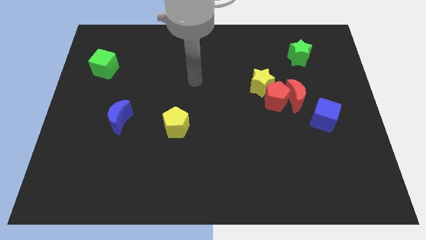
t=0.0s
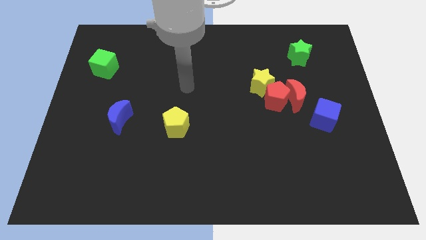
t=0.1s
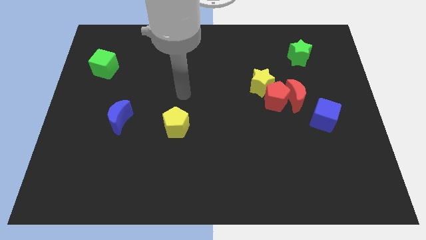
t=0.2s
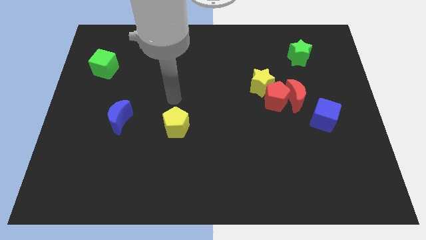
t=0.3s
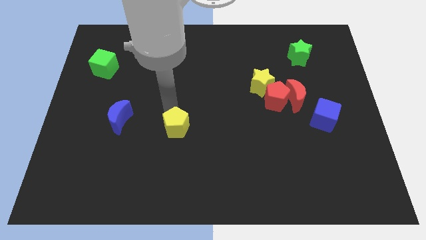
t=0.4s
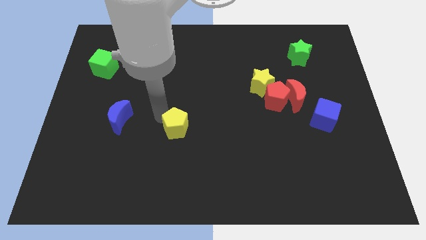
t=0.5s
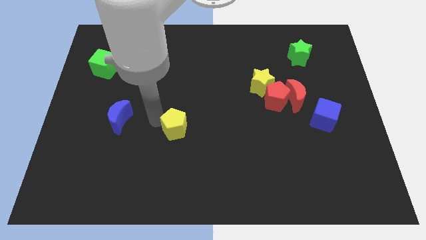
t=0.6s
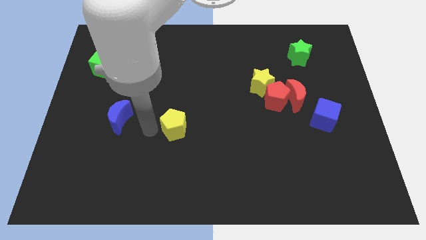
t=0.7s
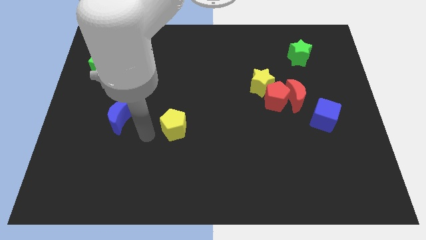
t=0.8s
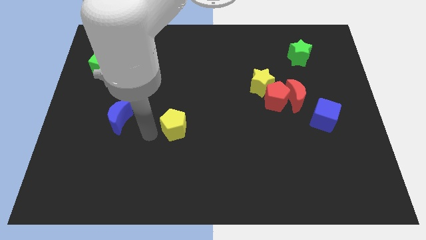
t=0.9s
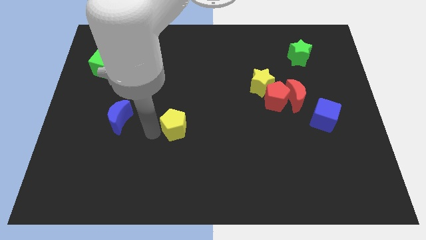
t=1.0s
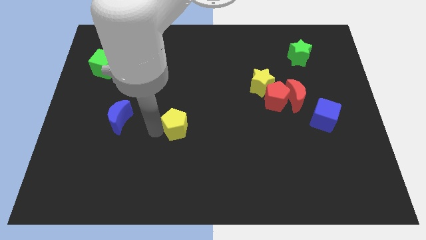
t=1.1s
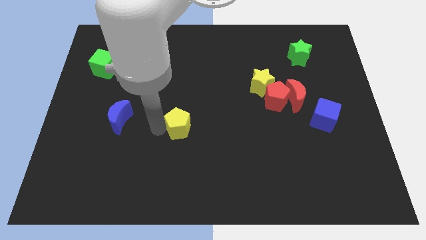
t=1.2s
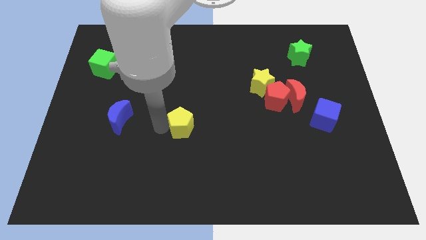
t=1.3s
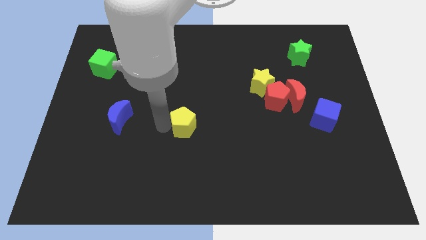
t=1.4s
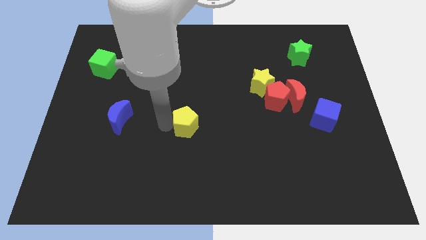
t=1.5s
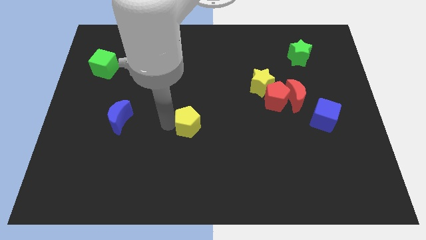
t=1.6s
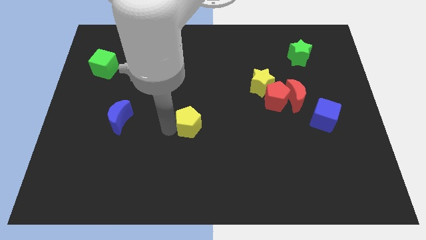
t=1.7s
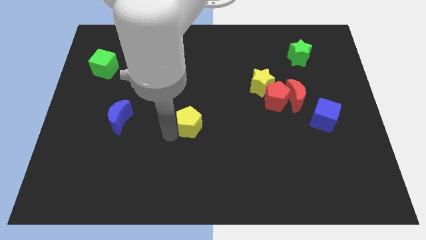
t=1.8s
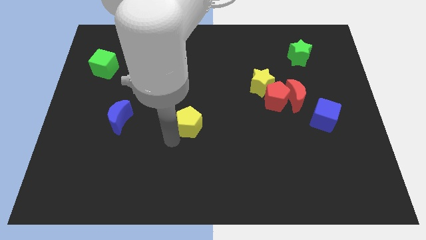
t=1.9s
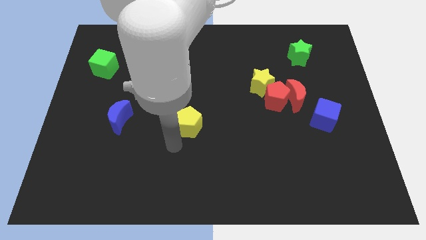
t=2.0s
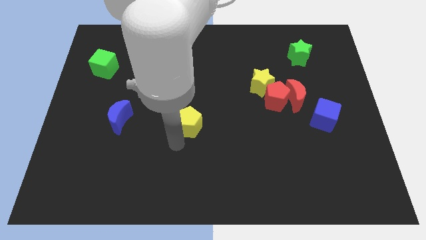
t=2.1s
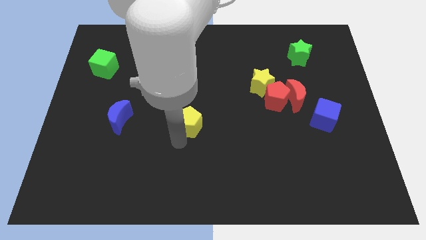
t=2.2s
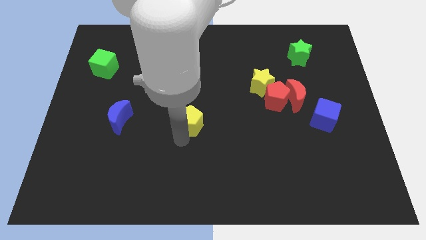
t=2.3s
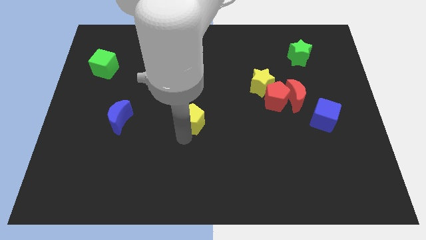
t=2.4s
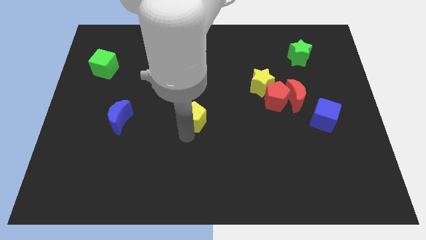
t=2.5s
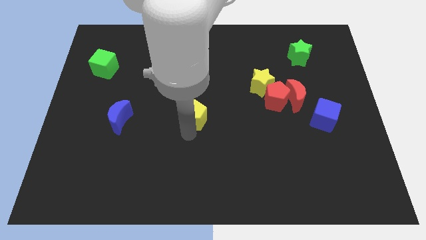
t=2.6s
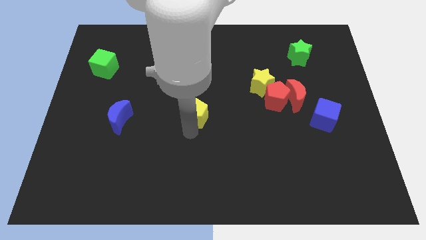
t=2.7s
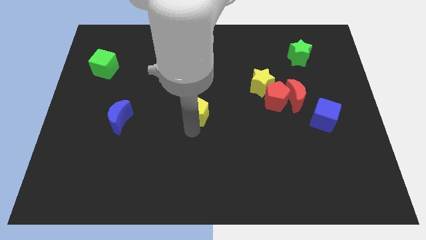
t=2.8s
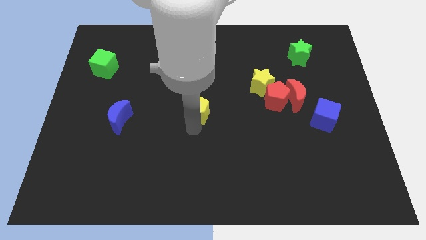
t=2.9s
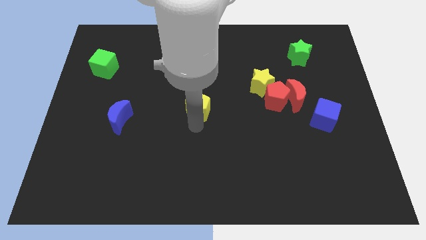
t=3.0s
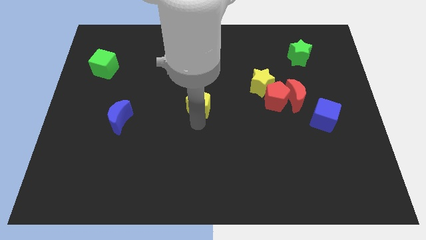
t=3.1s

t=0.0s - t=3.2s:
move the yellow pentagon diagonally upwards and to the right somewhat

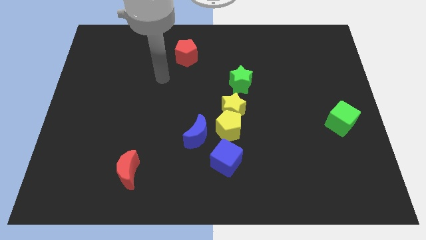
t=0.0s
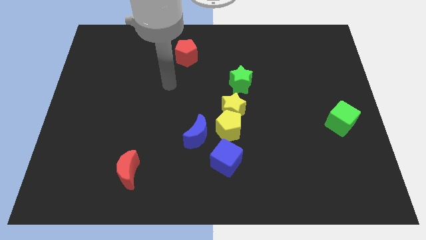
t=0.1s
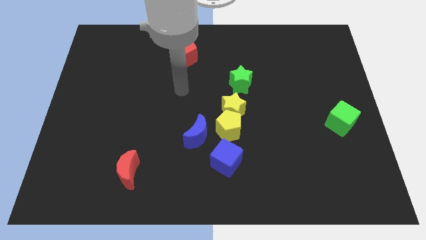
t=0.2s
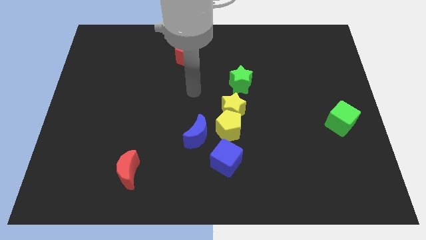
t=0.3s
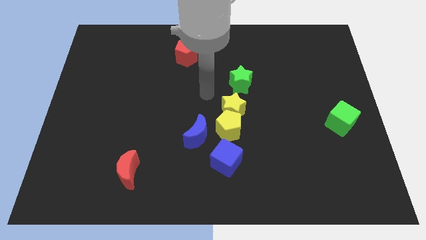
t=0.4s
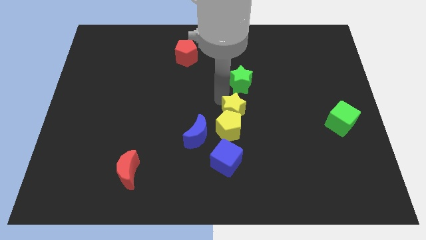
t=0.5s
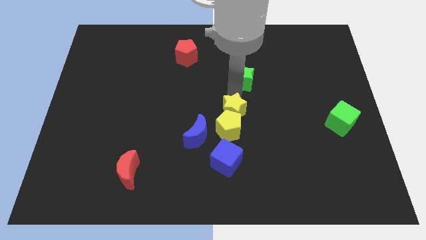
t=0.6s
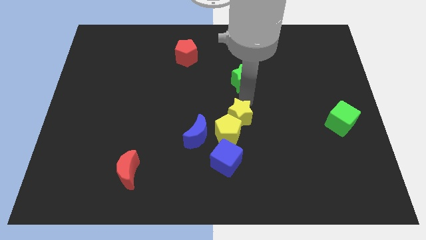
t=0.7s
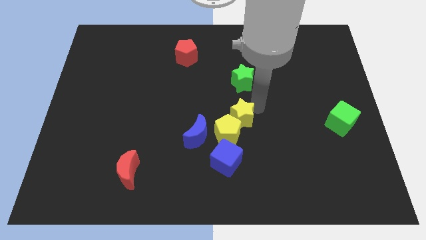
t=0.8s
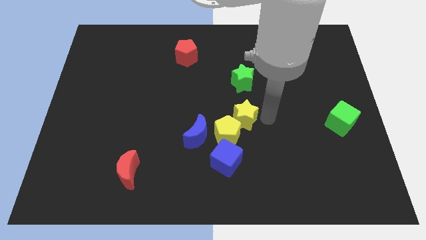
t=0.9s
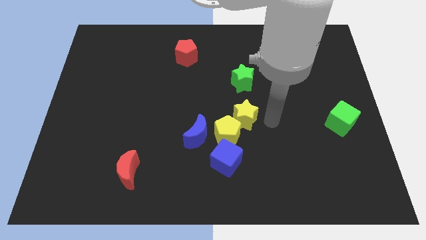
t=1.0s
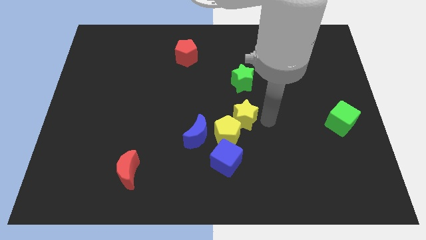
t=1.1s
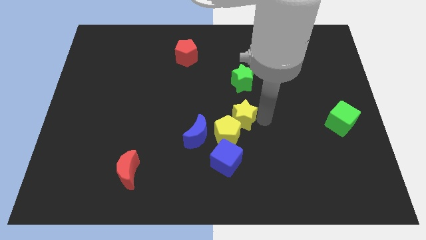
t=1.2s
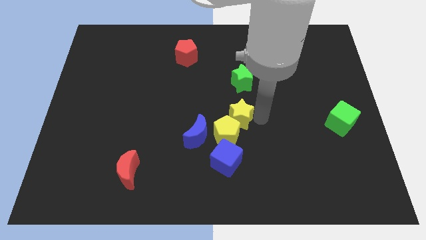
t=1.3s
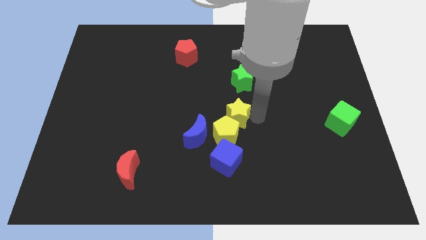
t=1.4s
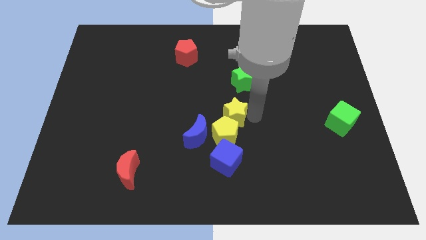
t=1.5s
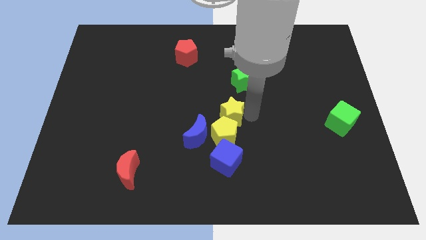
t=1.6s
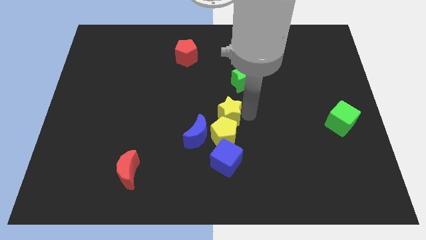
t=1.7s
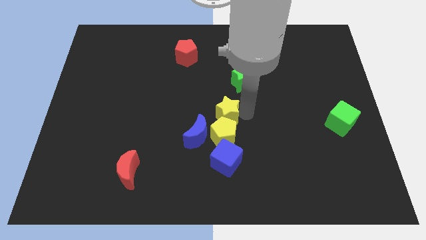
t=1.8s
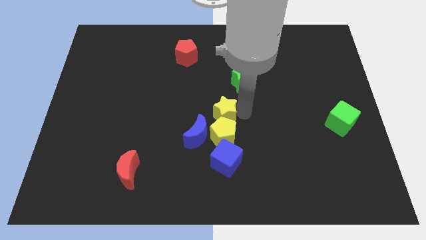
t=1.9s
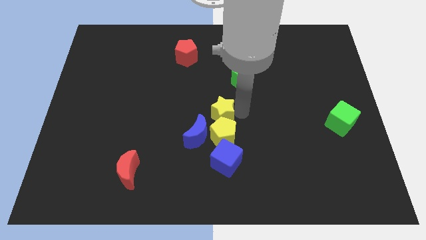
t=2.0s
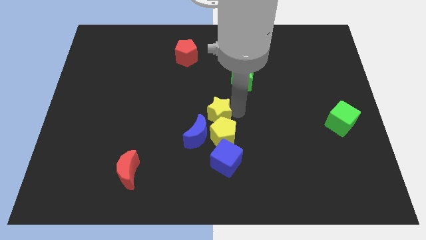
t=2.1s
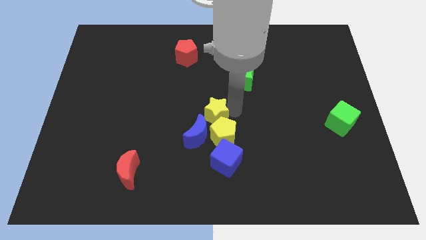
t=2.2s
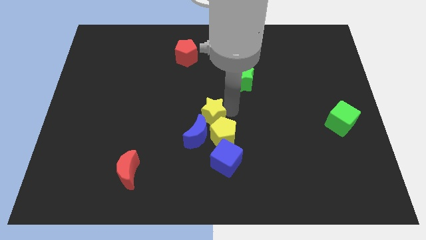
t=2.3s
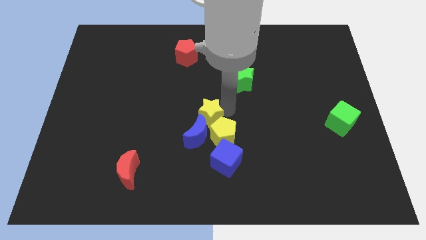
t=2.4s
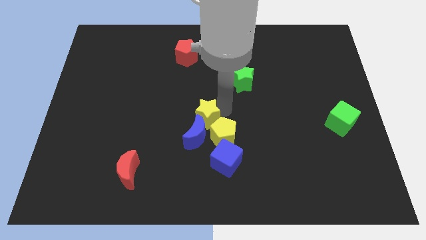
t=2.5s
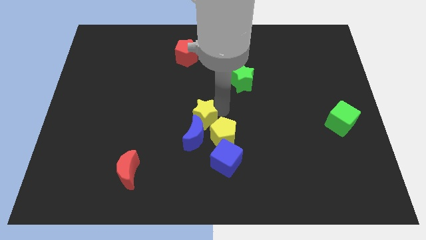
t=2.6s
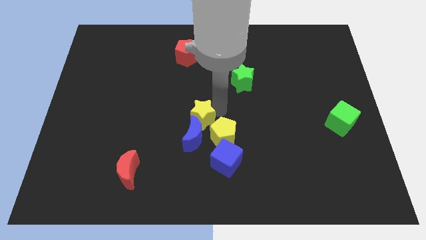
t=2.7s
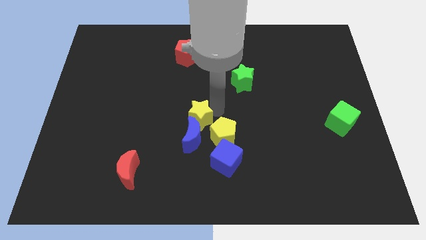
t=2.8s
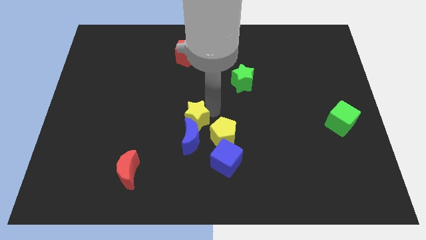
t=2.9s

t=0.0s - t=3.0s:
slide the yellow star somewhat downwards and to the left diagonally

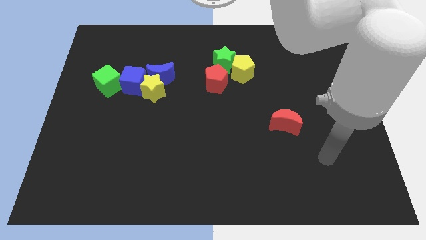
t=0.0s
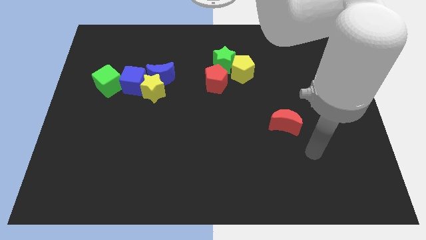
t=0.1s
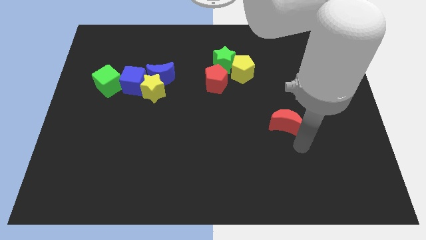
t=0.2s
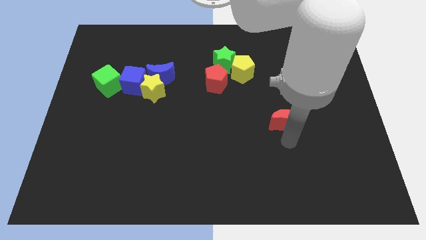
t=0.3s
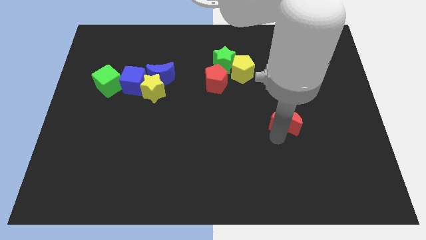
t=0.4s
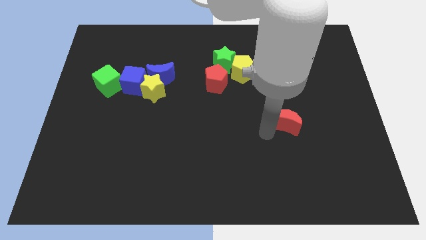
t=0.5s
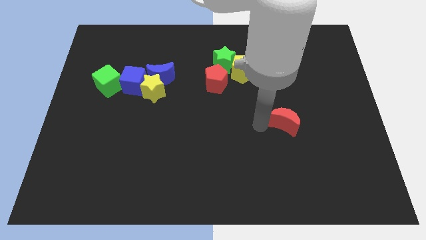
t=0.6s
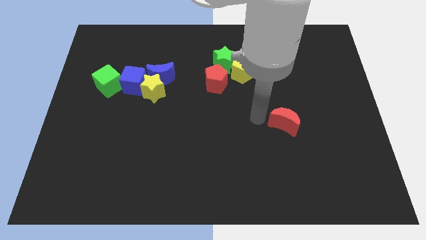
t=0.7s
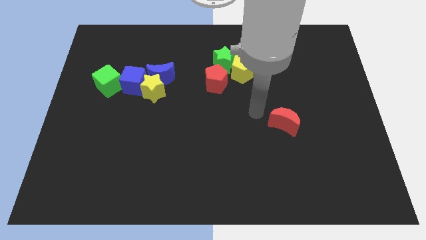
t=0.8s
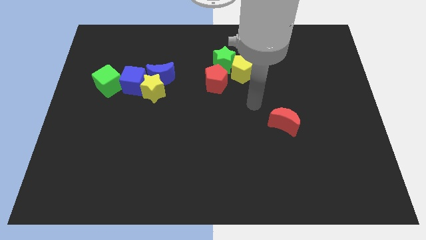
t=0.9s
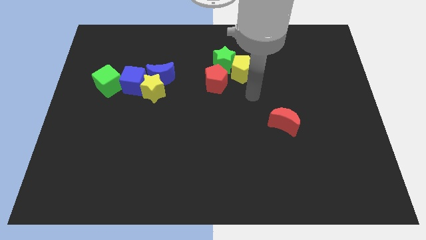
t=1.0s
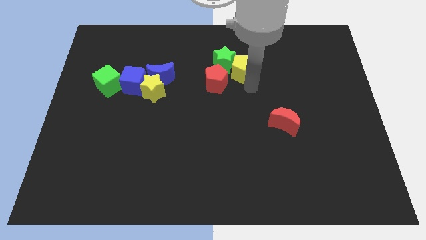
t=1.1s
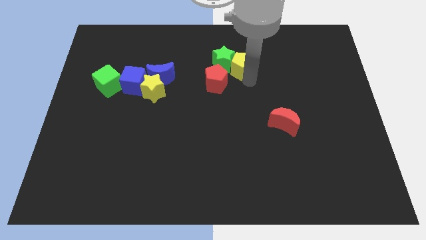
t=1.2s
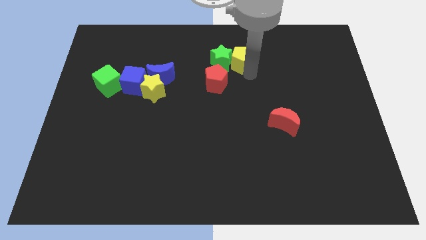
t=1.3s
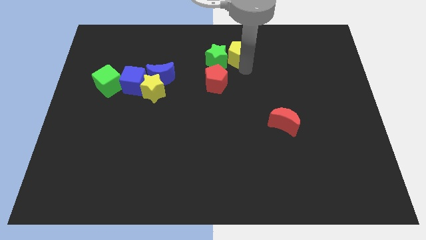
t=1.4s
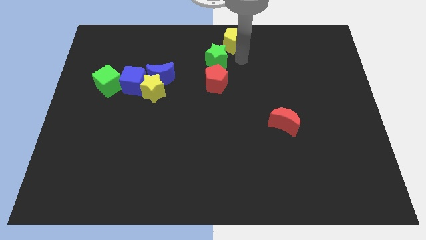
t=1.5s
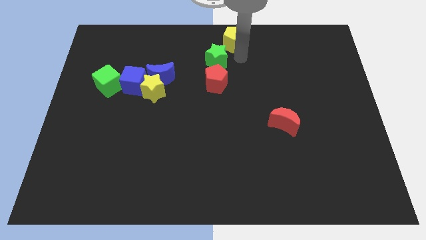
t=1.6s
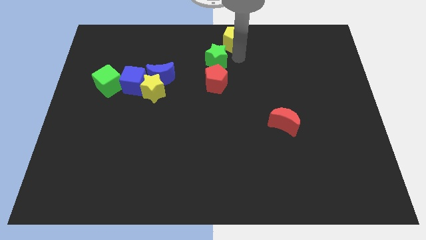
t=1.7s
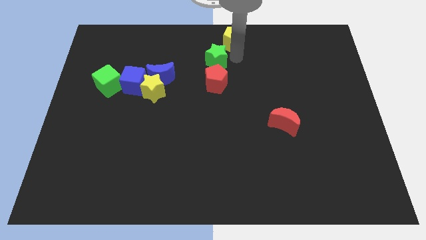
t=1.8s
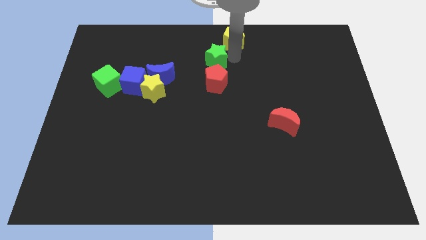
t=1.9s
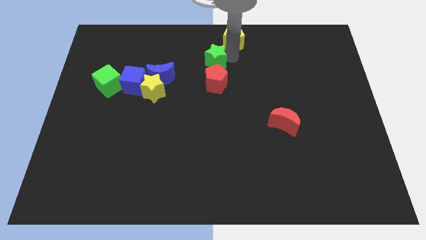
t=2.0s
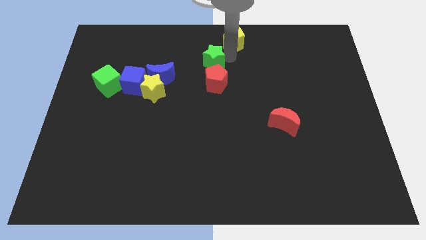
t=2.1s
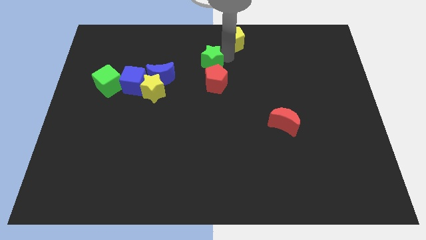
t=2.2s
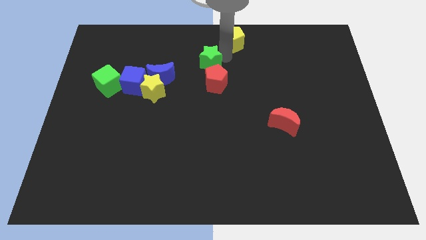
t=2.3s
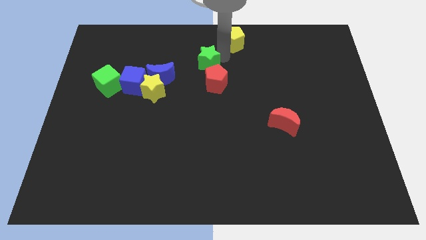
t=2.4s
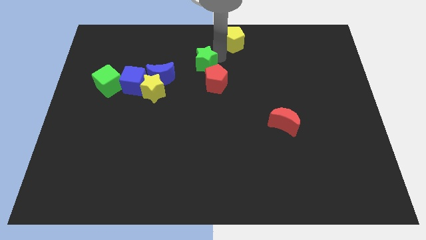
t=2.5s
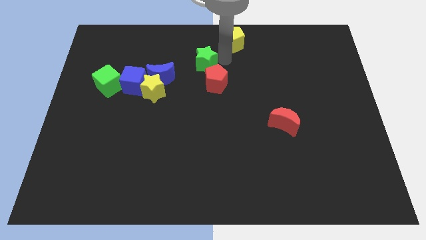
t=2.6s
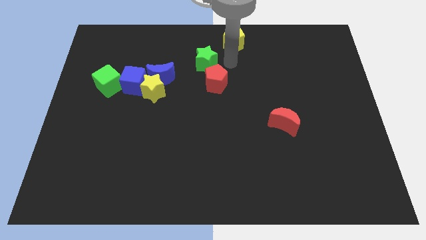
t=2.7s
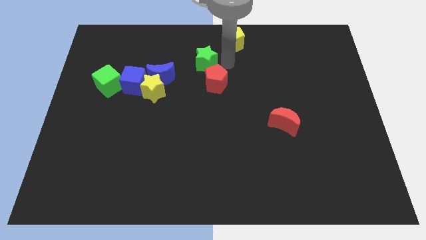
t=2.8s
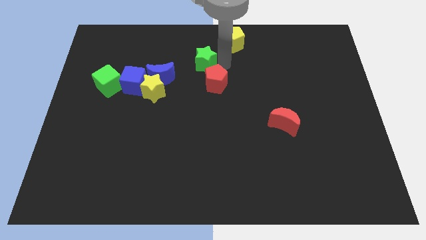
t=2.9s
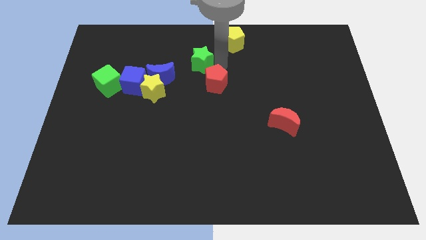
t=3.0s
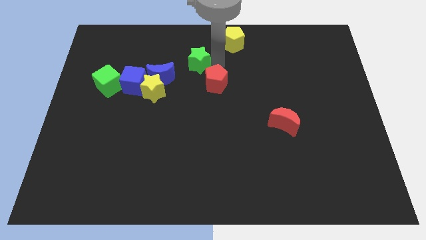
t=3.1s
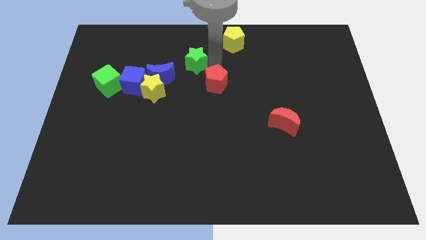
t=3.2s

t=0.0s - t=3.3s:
slightly push the green star to the left
